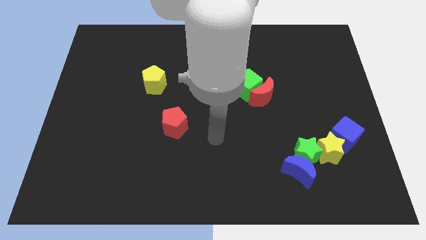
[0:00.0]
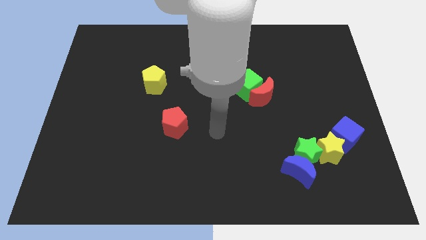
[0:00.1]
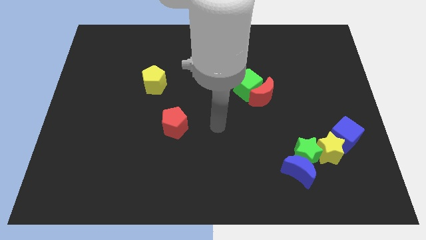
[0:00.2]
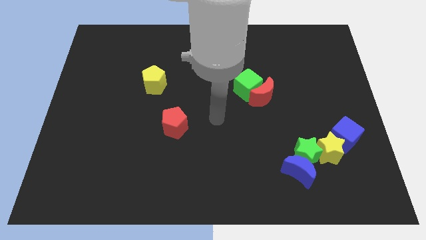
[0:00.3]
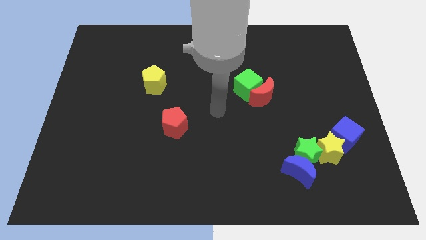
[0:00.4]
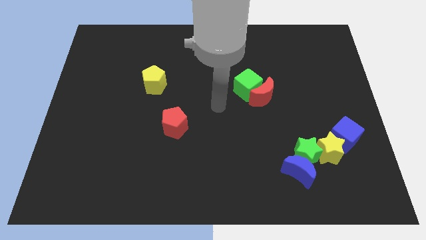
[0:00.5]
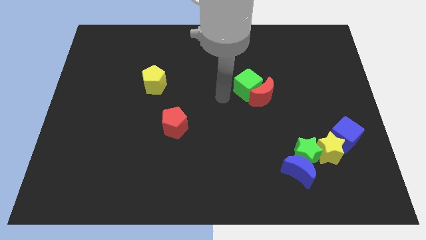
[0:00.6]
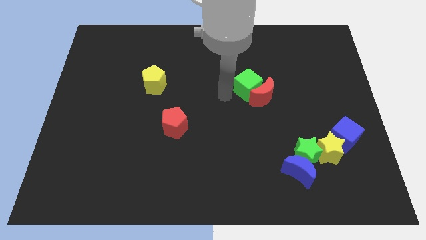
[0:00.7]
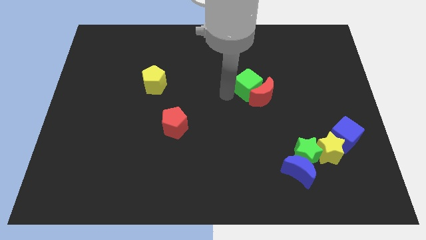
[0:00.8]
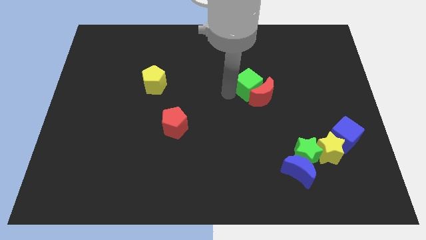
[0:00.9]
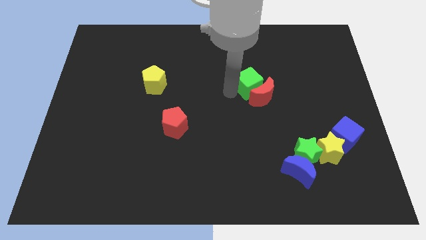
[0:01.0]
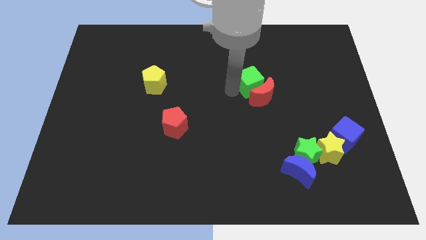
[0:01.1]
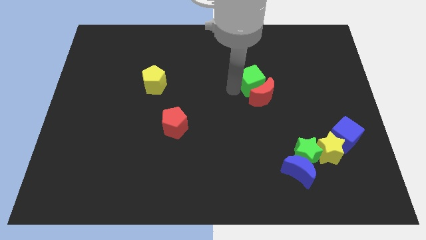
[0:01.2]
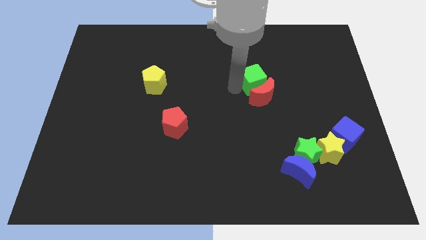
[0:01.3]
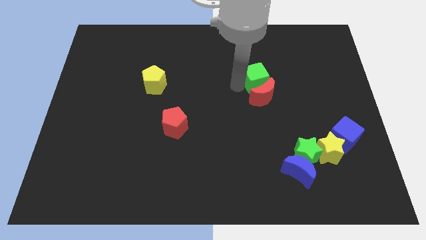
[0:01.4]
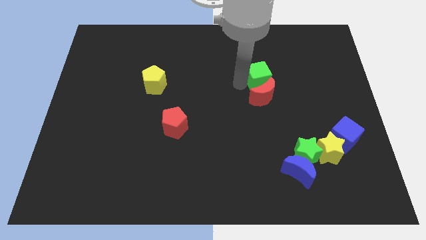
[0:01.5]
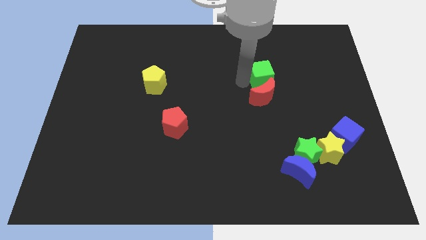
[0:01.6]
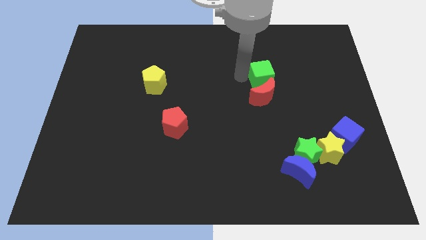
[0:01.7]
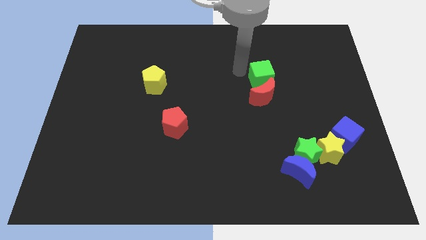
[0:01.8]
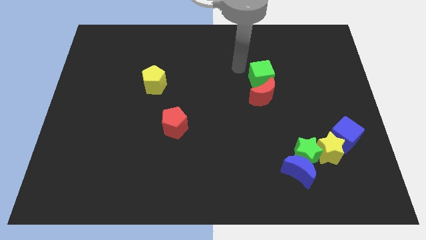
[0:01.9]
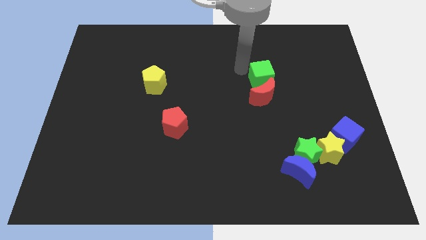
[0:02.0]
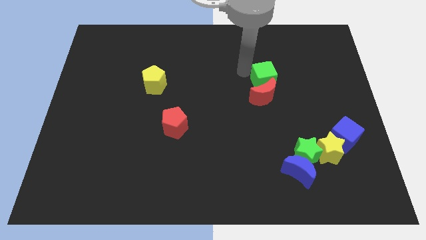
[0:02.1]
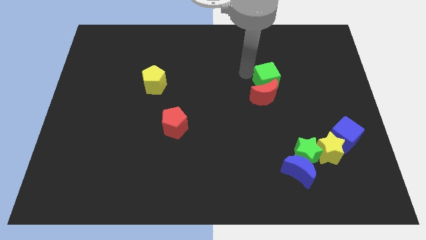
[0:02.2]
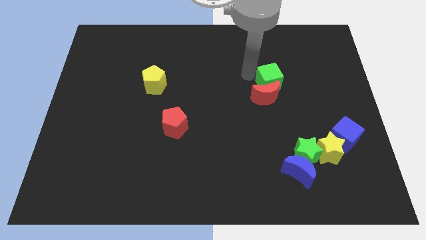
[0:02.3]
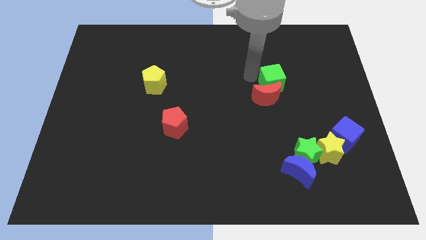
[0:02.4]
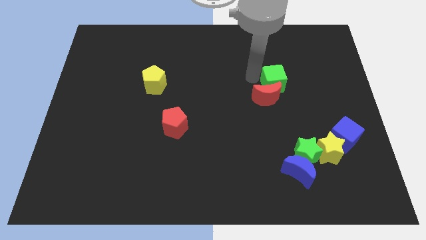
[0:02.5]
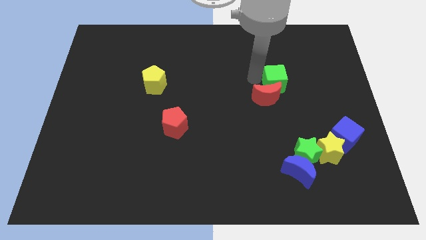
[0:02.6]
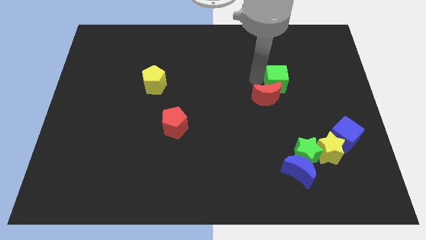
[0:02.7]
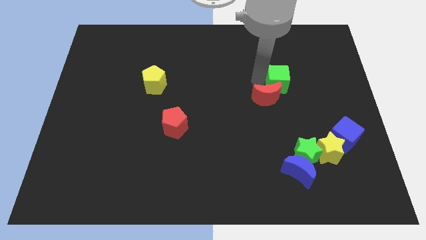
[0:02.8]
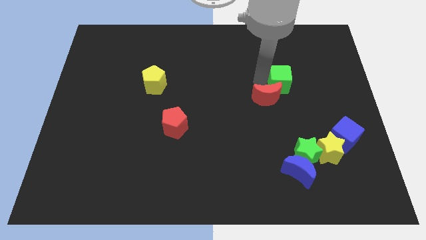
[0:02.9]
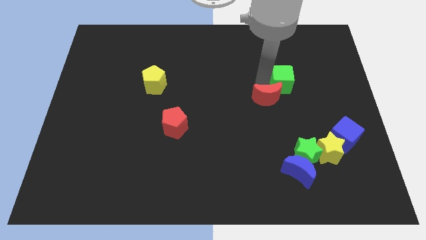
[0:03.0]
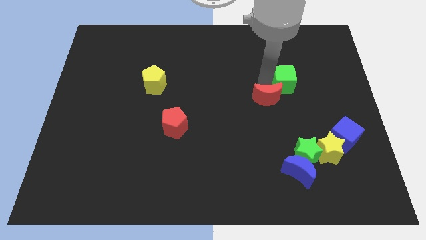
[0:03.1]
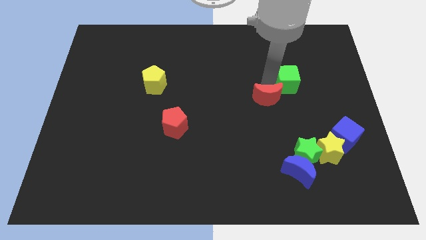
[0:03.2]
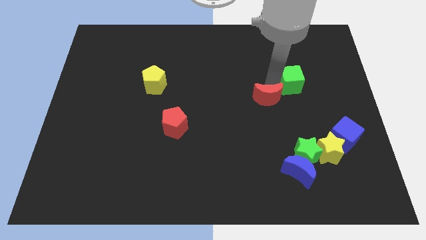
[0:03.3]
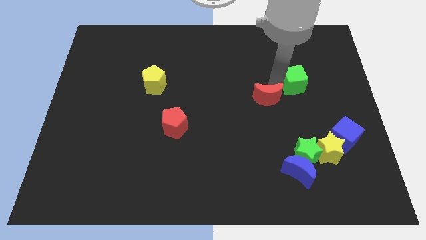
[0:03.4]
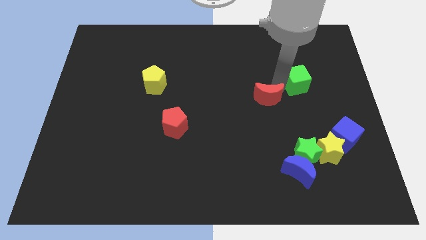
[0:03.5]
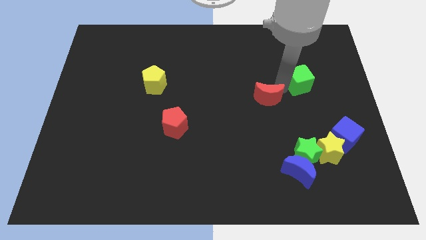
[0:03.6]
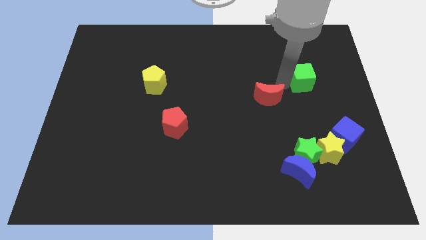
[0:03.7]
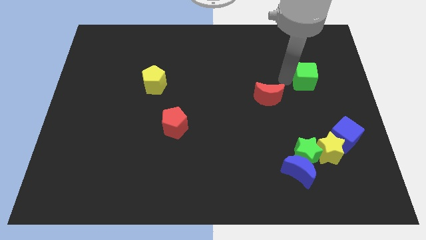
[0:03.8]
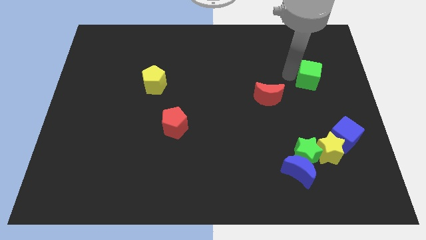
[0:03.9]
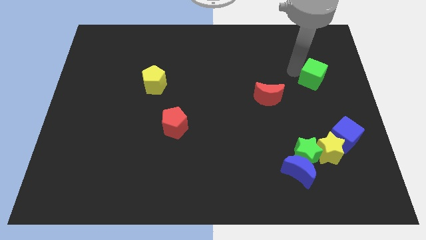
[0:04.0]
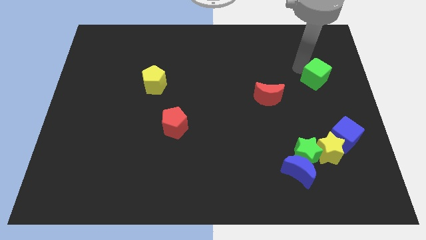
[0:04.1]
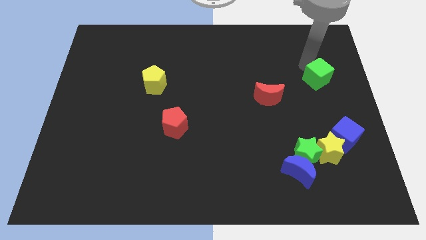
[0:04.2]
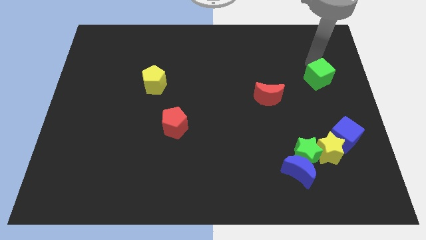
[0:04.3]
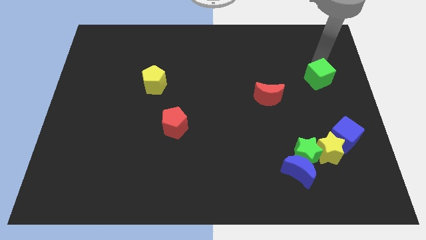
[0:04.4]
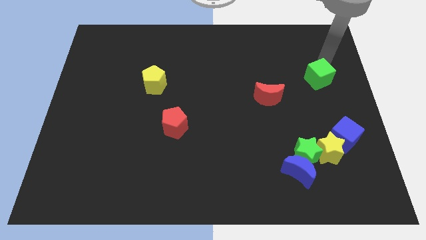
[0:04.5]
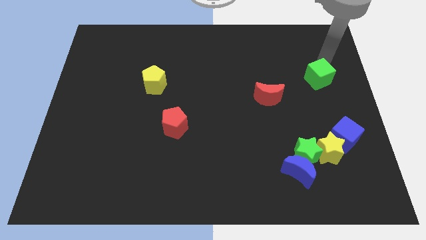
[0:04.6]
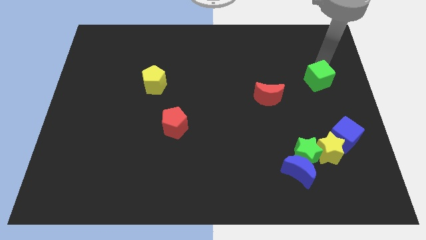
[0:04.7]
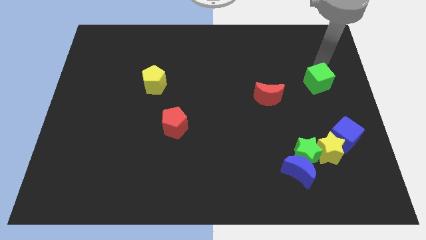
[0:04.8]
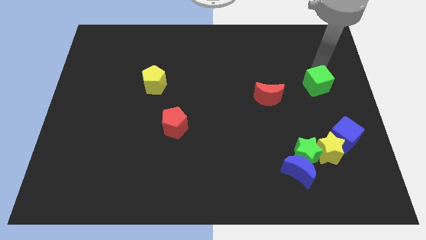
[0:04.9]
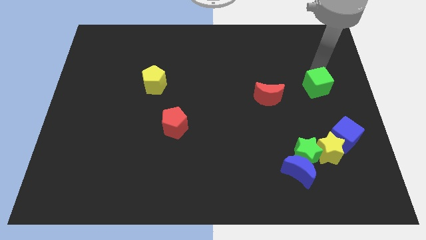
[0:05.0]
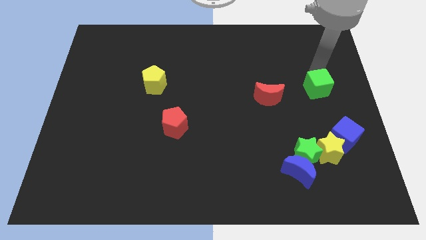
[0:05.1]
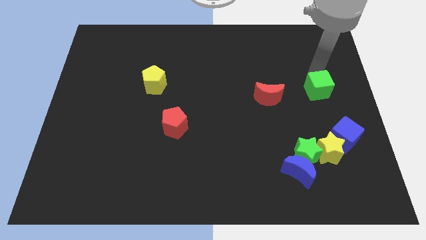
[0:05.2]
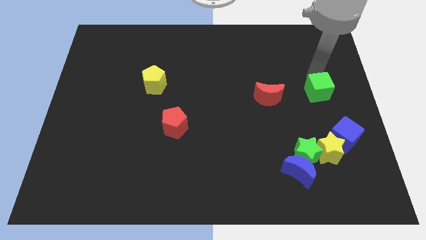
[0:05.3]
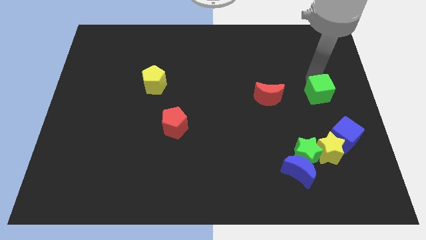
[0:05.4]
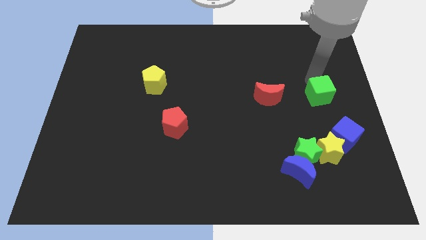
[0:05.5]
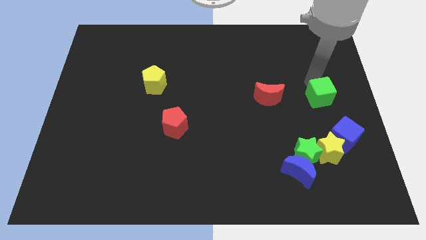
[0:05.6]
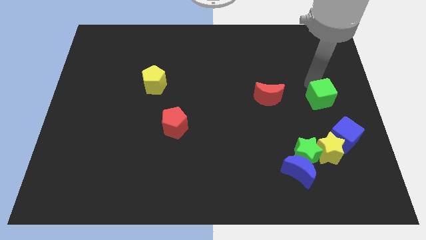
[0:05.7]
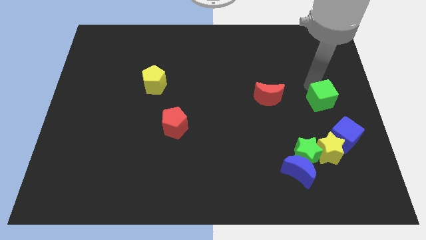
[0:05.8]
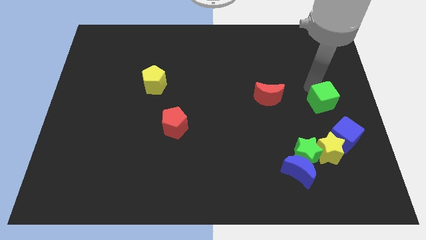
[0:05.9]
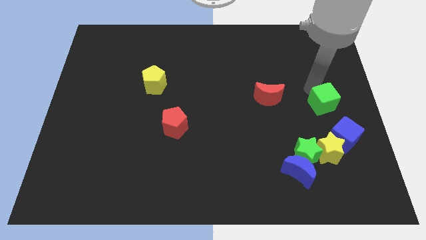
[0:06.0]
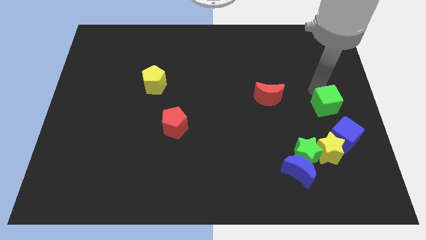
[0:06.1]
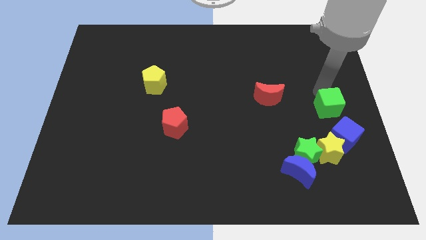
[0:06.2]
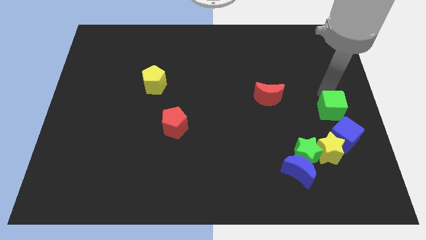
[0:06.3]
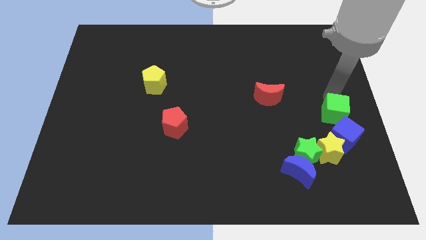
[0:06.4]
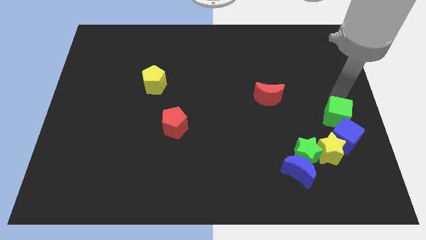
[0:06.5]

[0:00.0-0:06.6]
put the green cube to the blue cube

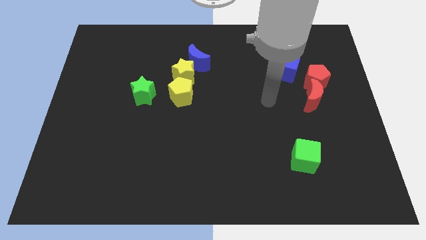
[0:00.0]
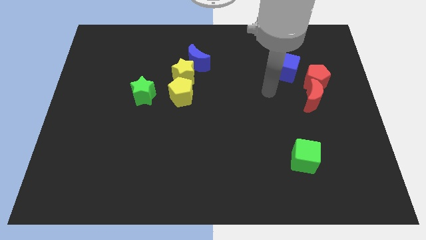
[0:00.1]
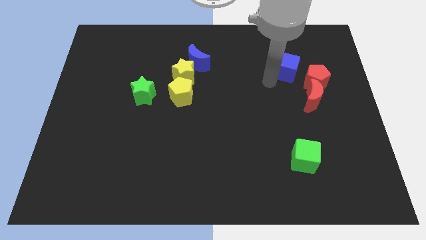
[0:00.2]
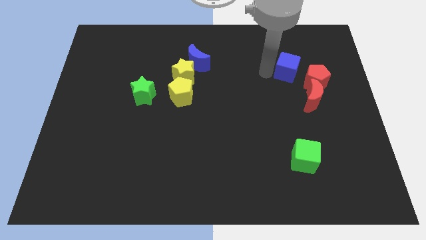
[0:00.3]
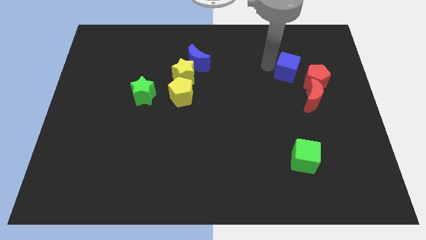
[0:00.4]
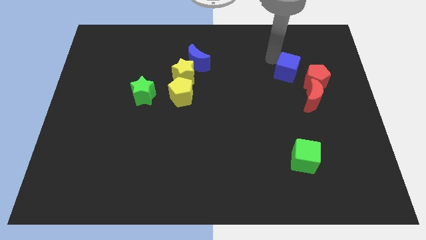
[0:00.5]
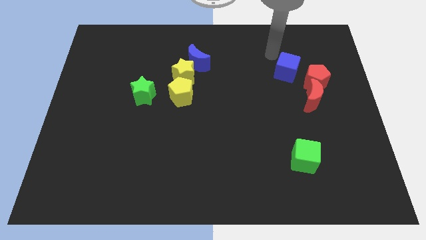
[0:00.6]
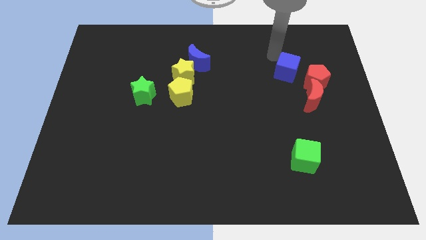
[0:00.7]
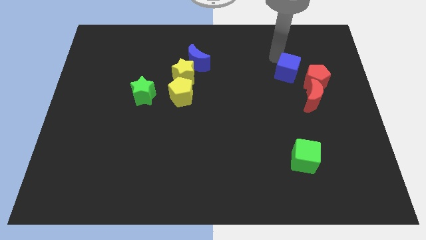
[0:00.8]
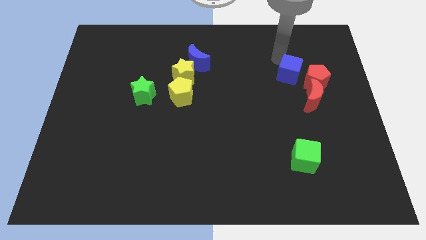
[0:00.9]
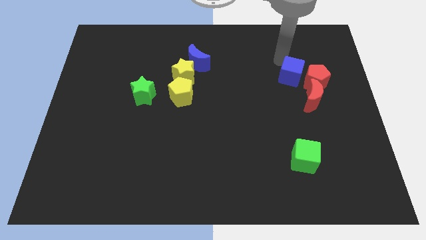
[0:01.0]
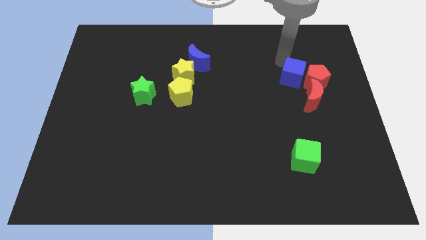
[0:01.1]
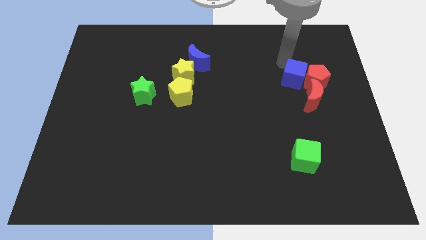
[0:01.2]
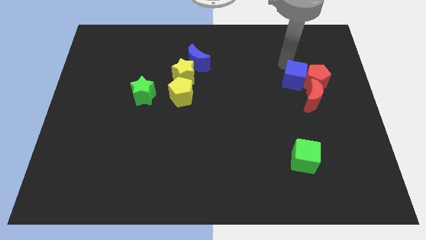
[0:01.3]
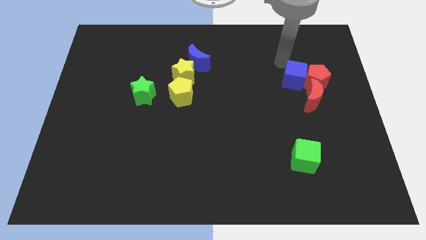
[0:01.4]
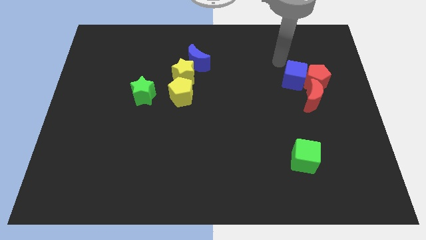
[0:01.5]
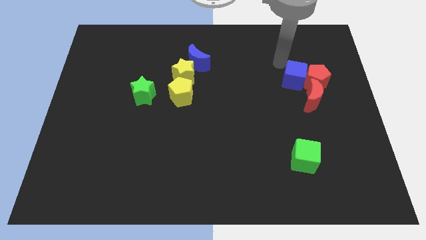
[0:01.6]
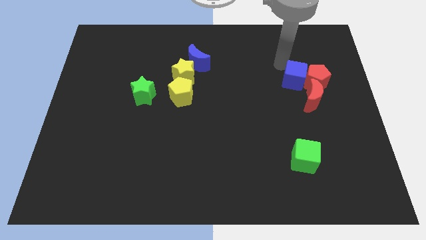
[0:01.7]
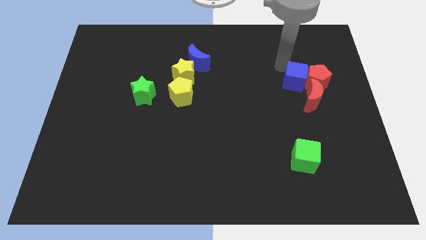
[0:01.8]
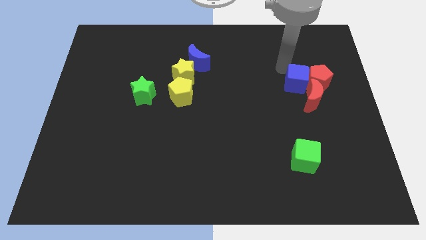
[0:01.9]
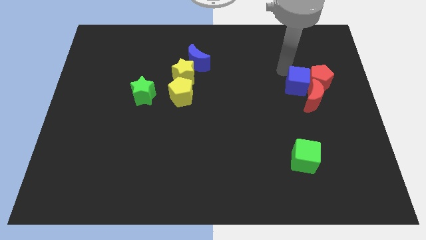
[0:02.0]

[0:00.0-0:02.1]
push the blue cube to the red moon
